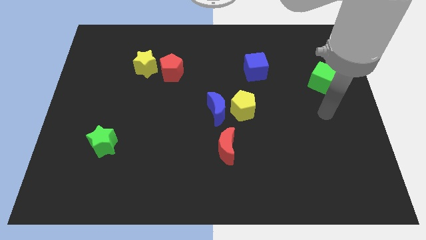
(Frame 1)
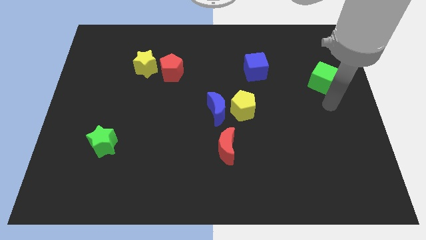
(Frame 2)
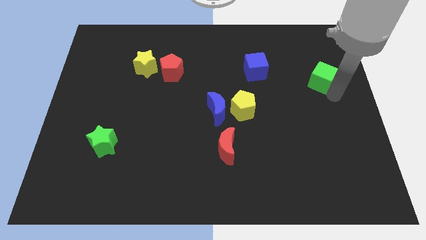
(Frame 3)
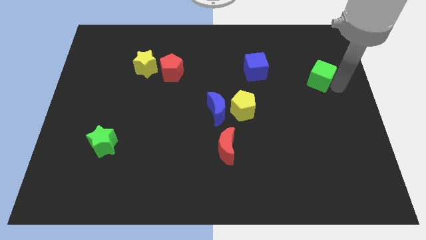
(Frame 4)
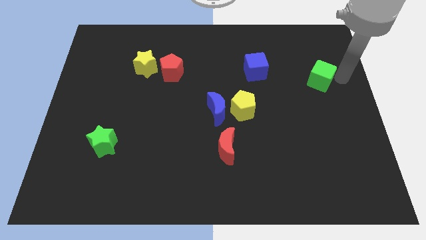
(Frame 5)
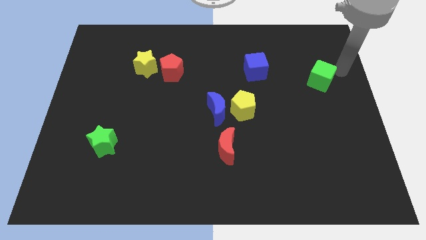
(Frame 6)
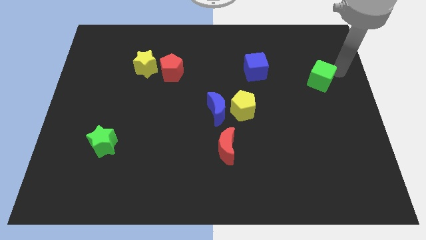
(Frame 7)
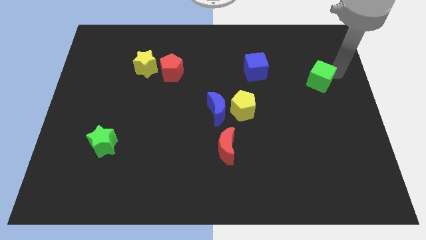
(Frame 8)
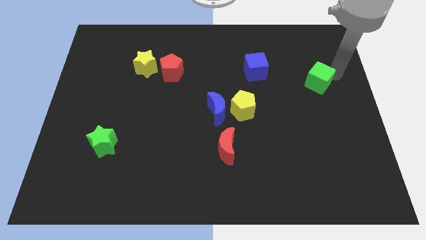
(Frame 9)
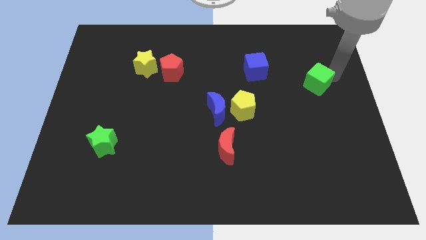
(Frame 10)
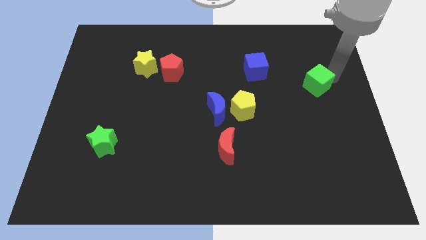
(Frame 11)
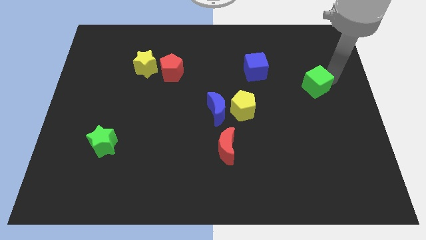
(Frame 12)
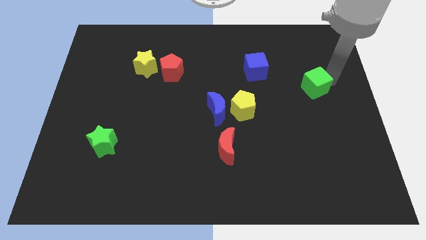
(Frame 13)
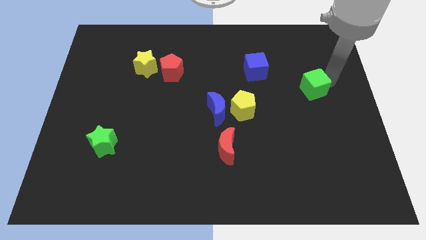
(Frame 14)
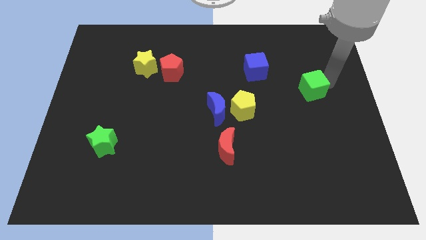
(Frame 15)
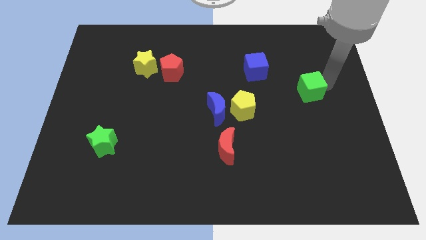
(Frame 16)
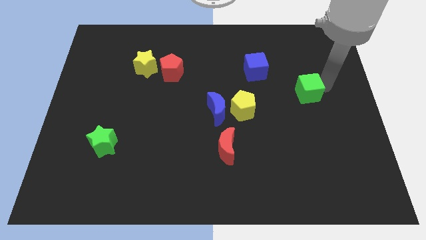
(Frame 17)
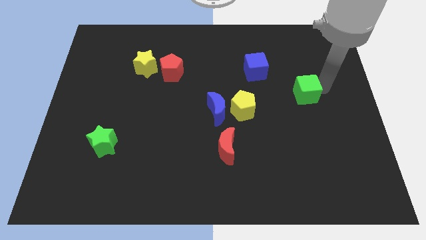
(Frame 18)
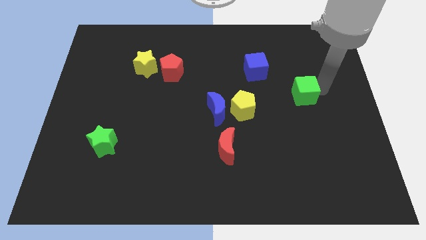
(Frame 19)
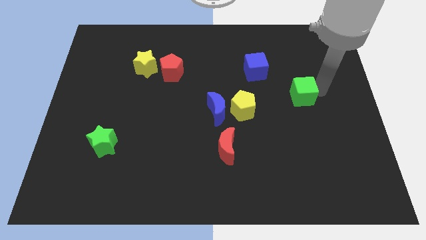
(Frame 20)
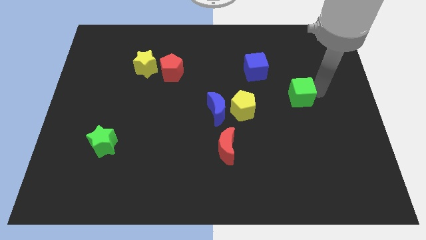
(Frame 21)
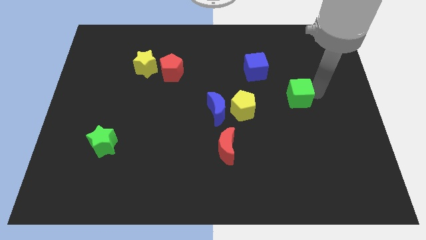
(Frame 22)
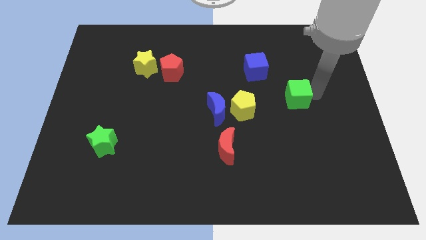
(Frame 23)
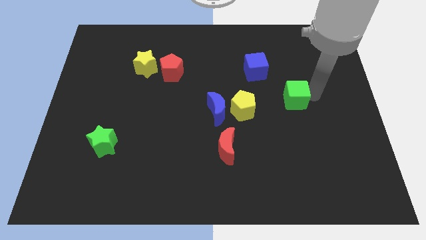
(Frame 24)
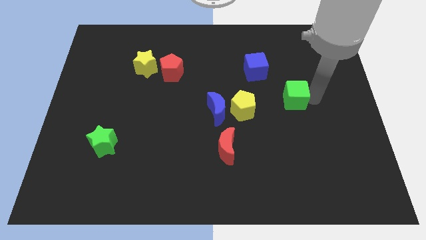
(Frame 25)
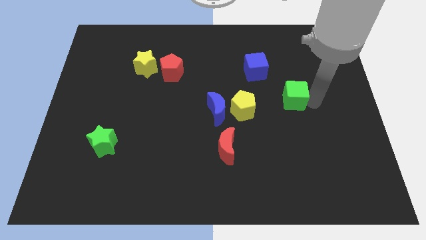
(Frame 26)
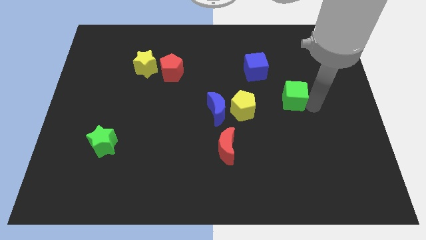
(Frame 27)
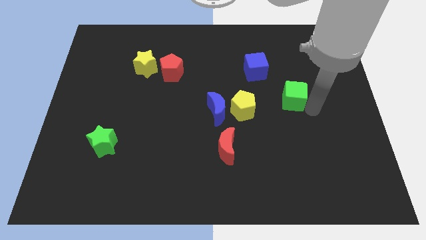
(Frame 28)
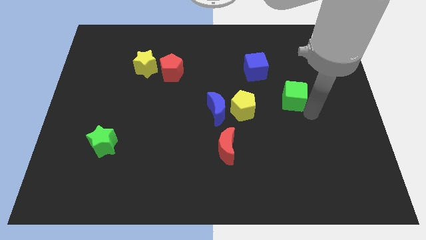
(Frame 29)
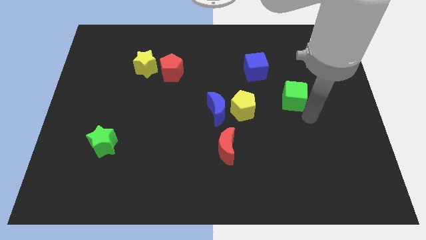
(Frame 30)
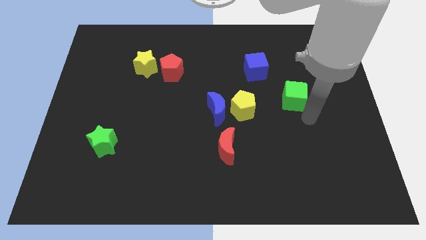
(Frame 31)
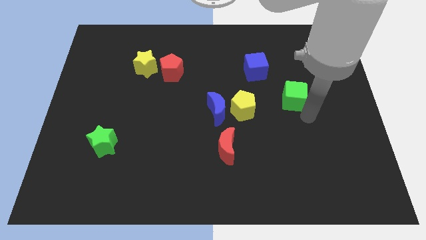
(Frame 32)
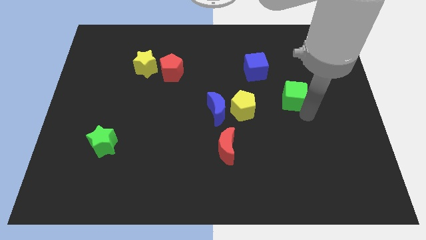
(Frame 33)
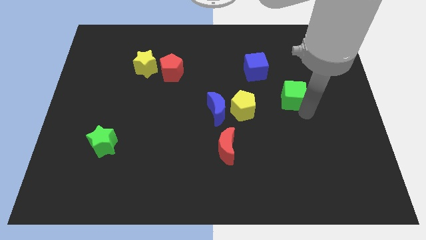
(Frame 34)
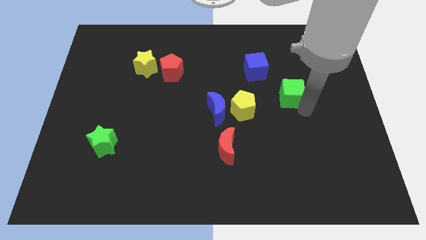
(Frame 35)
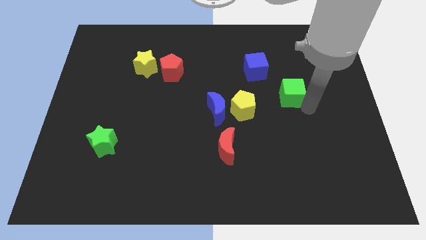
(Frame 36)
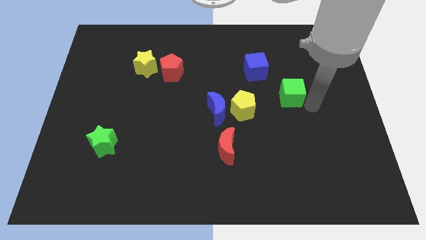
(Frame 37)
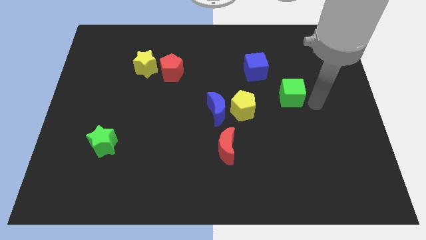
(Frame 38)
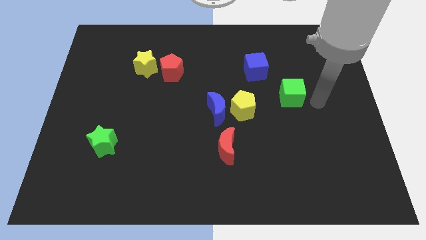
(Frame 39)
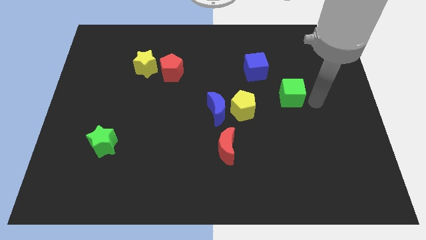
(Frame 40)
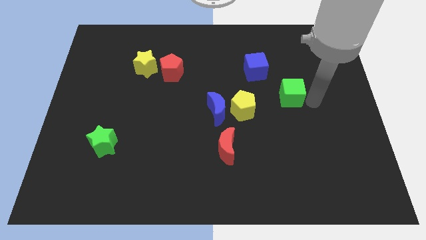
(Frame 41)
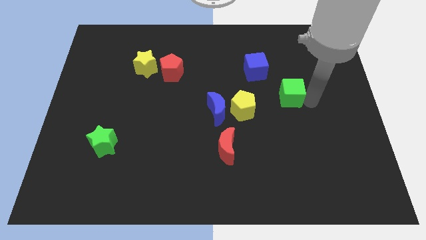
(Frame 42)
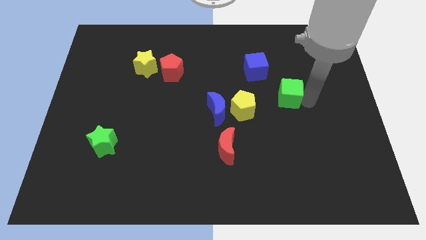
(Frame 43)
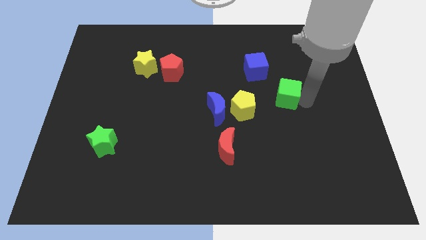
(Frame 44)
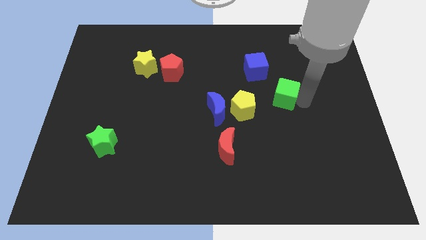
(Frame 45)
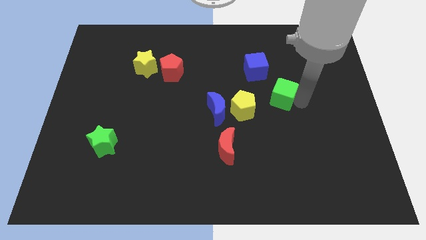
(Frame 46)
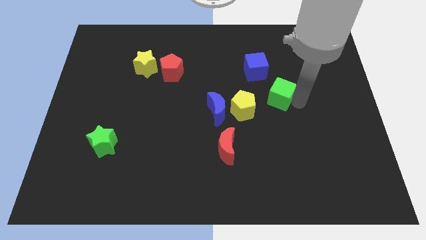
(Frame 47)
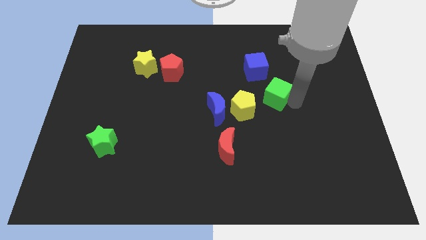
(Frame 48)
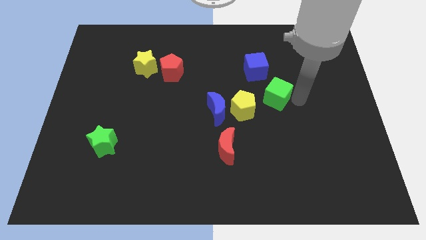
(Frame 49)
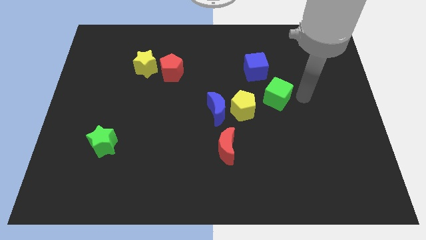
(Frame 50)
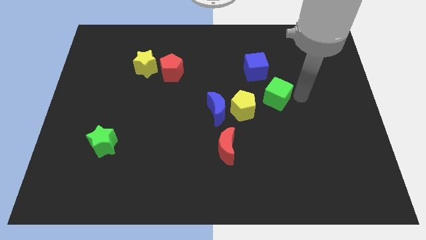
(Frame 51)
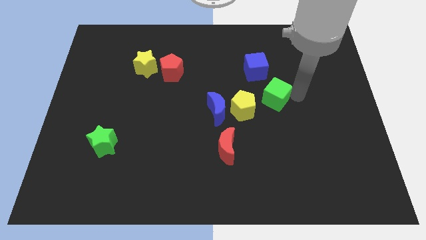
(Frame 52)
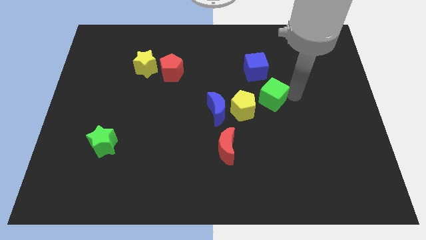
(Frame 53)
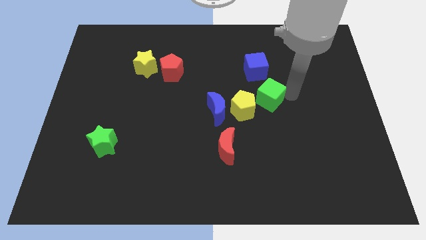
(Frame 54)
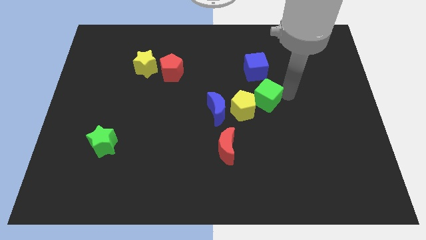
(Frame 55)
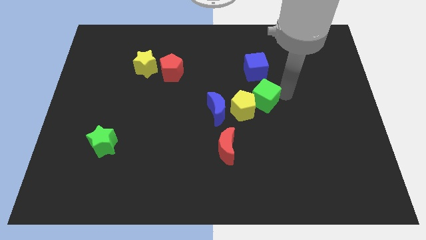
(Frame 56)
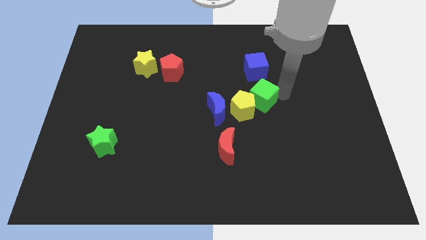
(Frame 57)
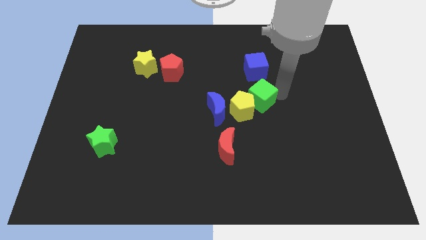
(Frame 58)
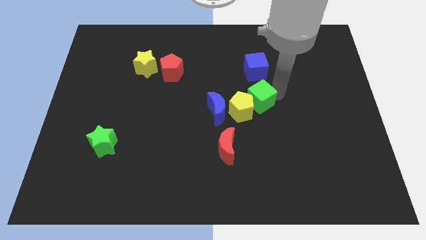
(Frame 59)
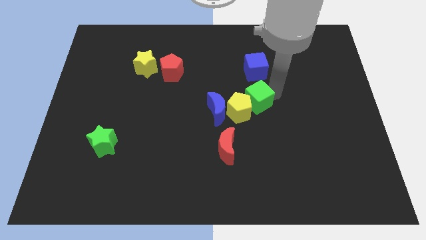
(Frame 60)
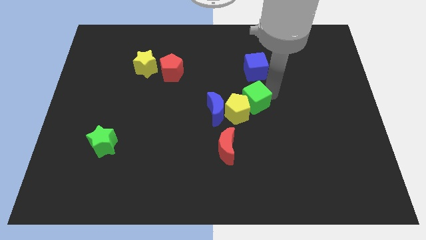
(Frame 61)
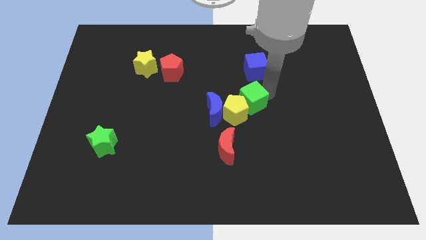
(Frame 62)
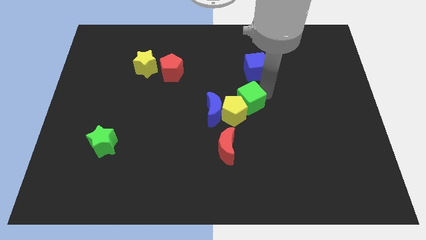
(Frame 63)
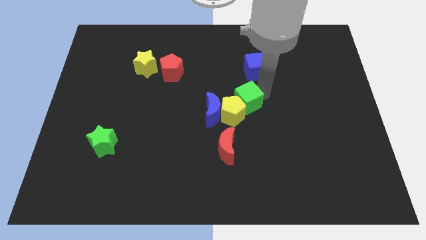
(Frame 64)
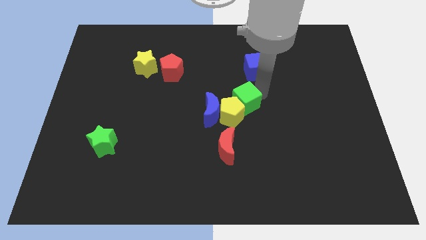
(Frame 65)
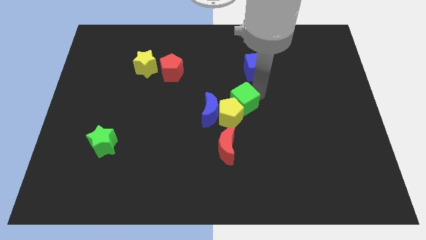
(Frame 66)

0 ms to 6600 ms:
put the green cube to the top of the red moon
